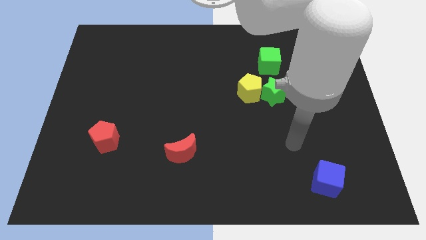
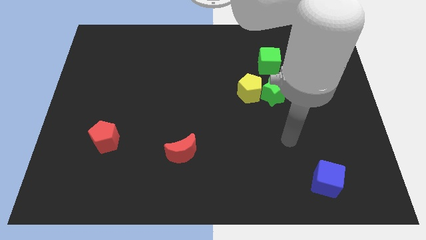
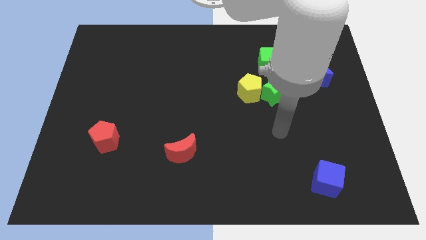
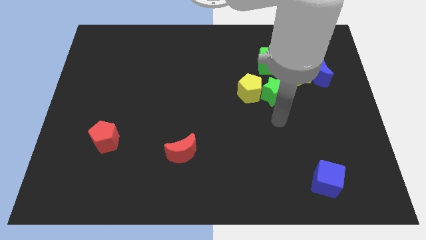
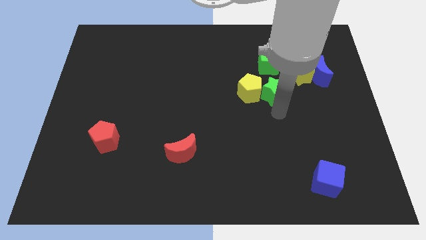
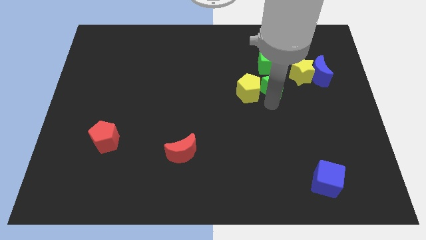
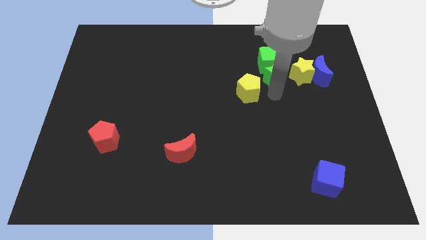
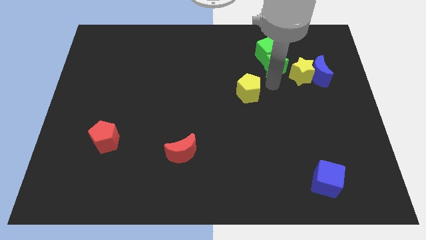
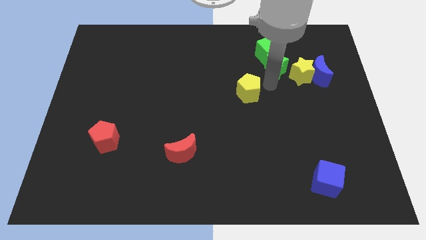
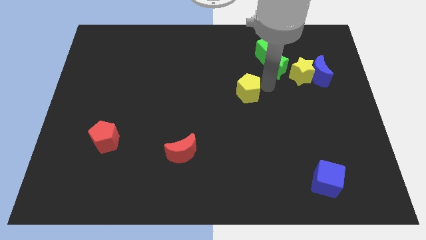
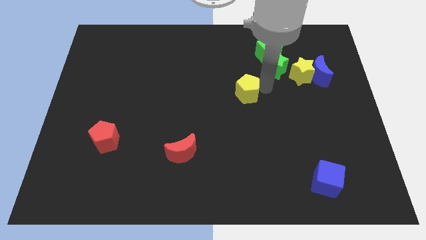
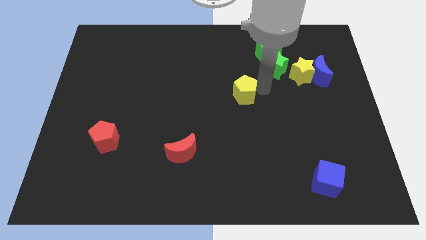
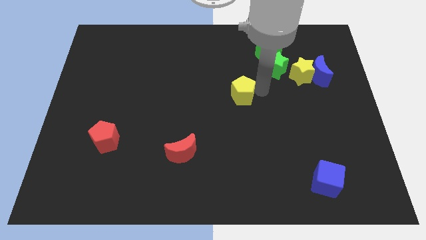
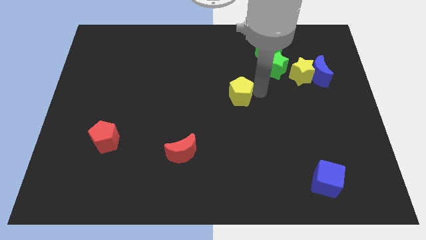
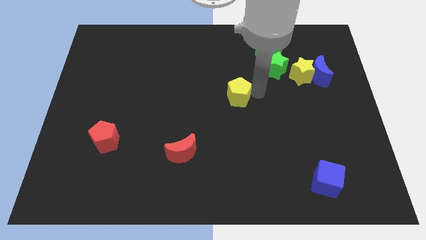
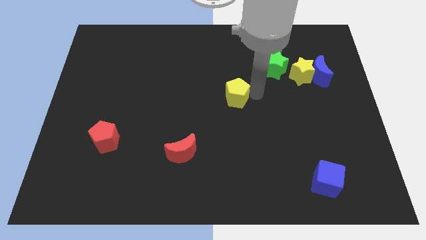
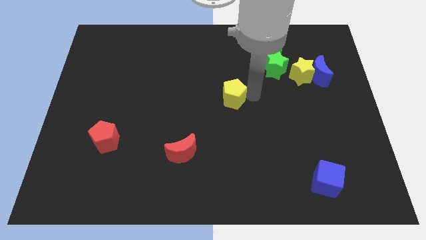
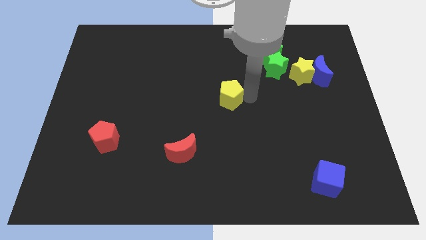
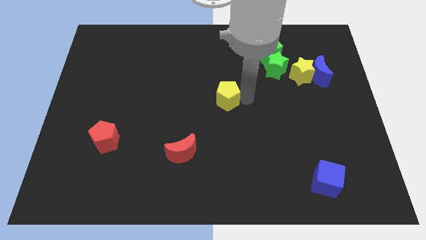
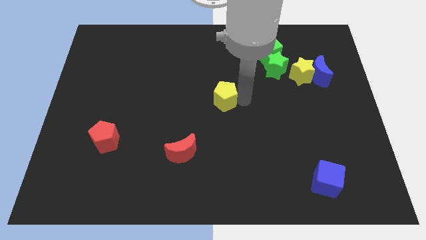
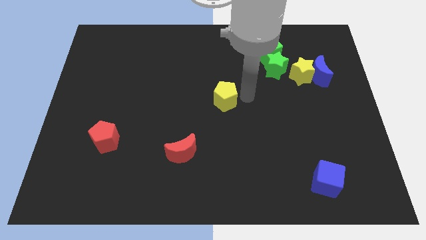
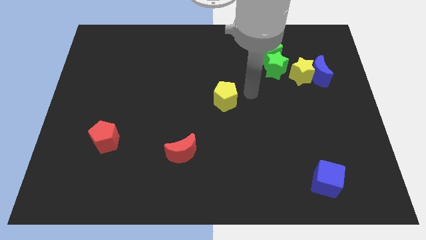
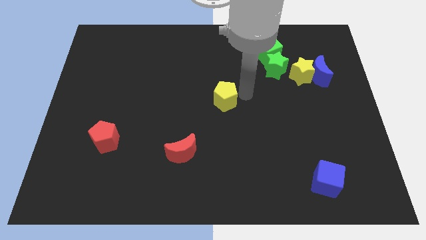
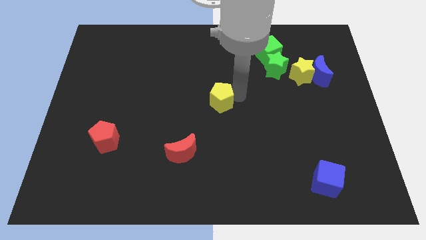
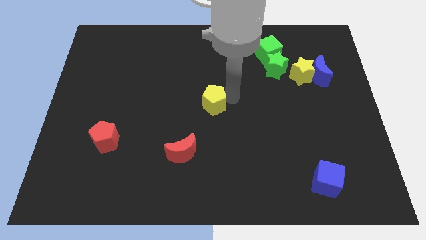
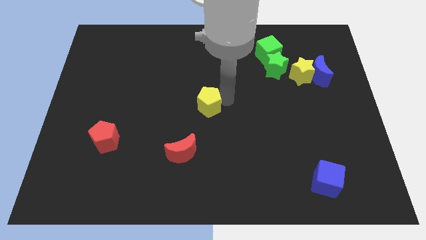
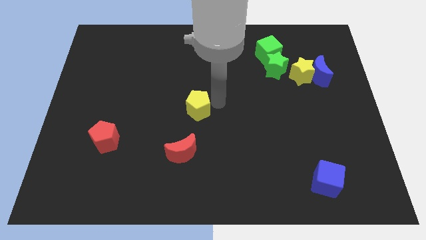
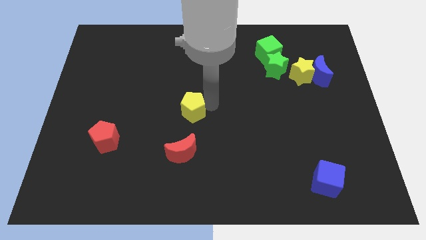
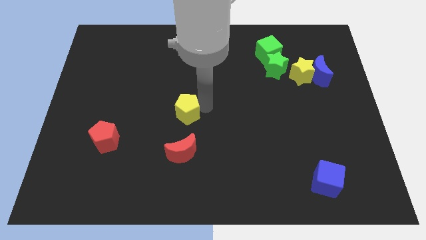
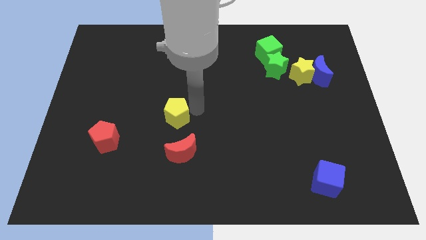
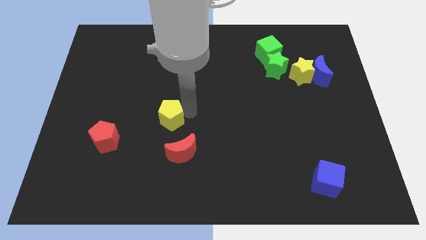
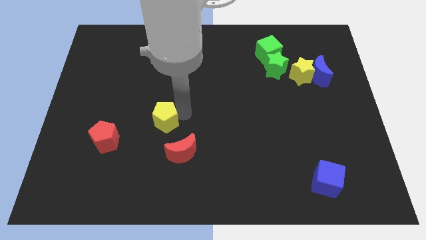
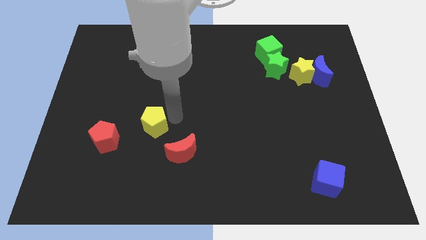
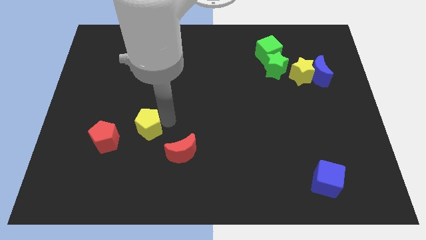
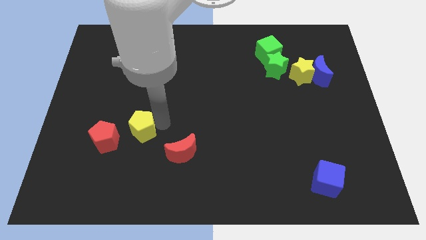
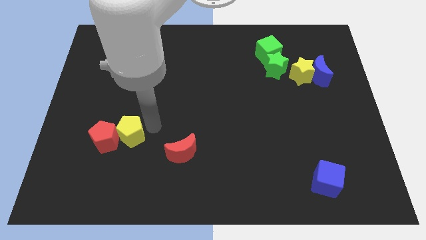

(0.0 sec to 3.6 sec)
push the yellow pentagon to the red pentagon

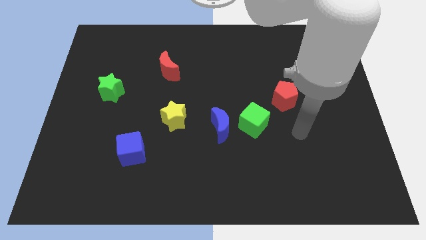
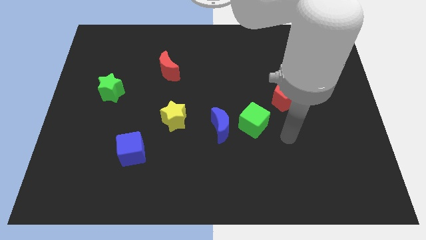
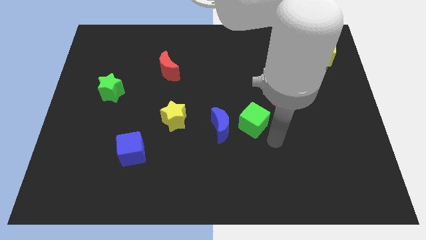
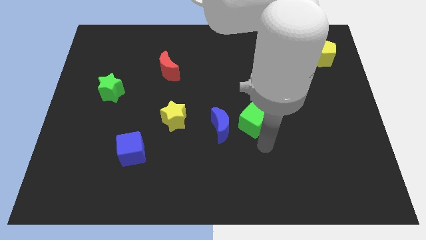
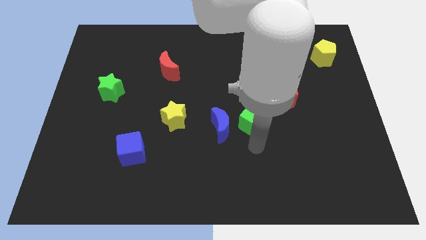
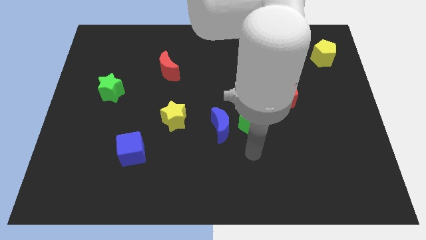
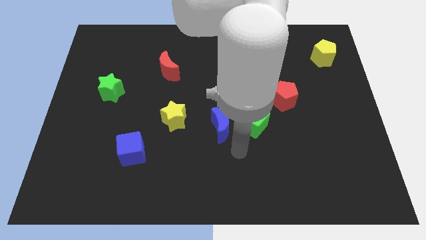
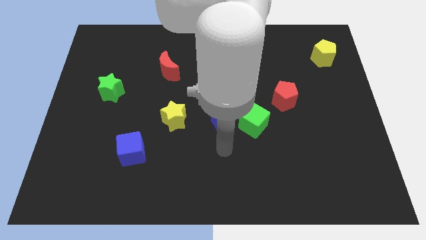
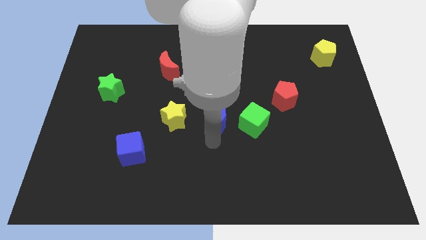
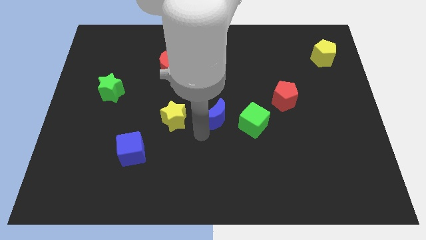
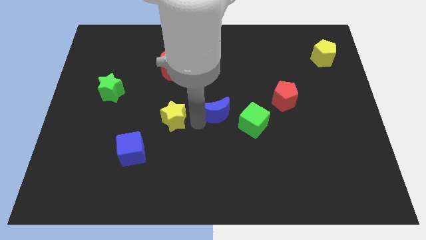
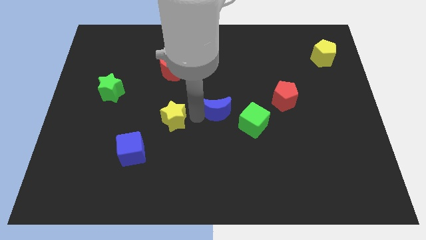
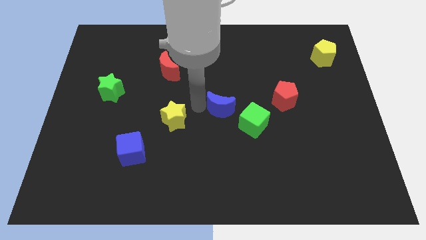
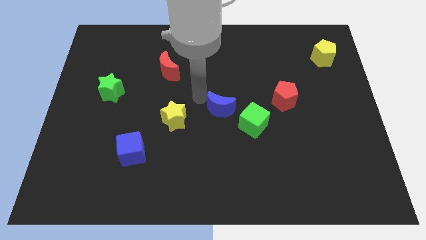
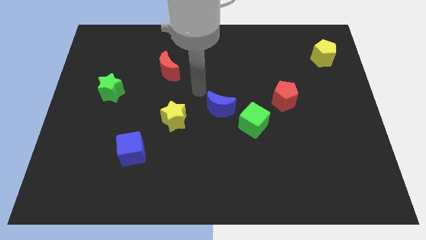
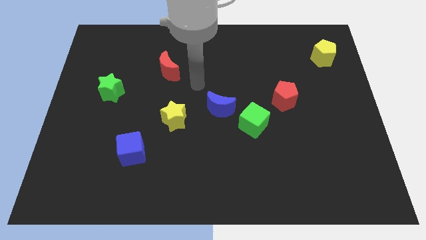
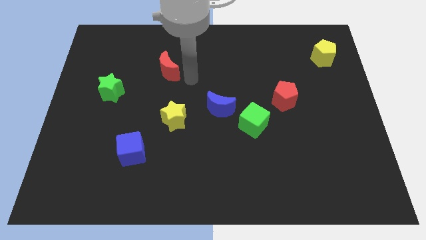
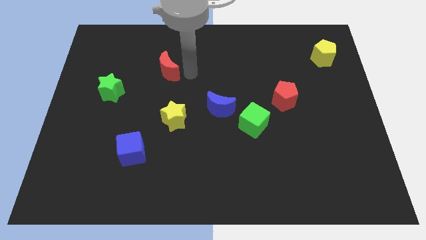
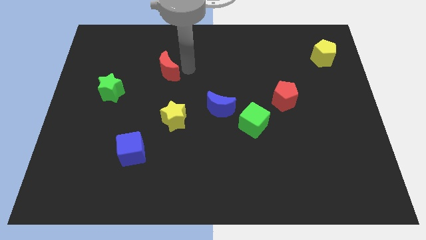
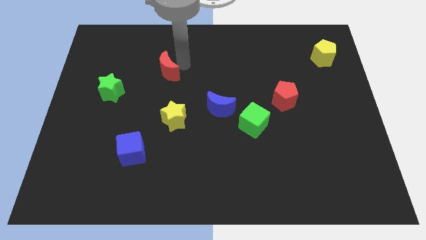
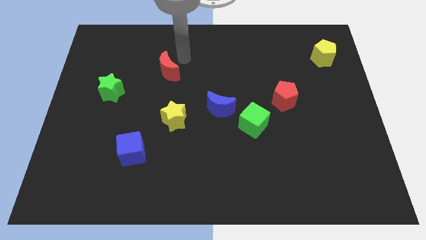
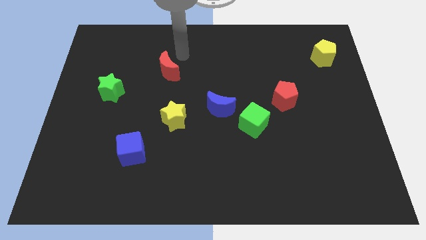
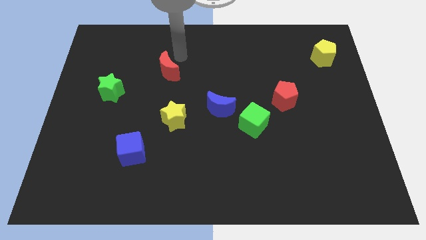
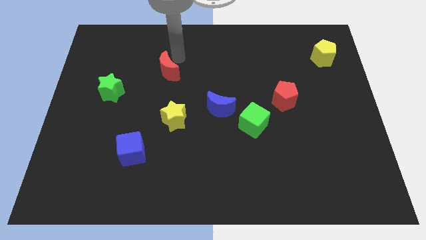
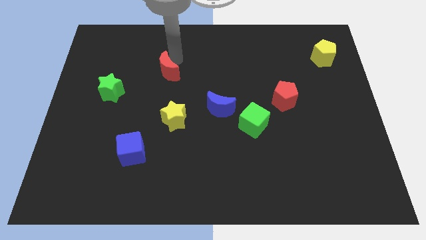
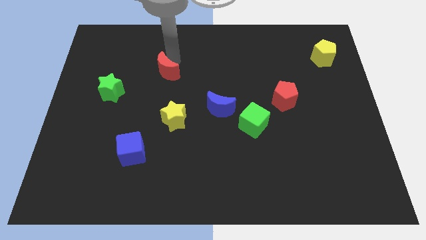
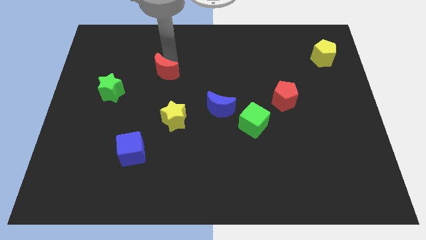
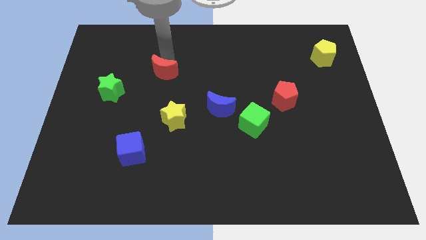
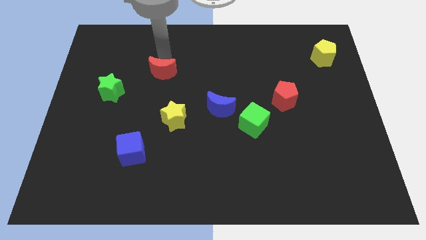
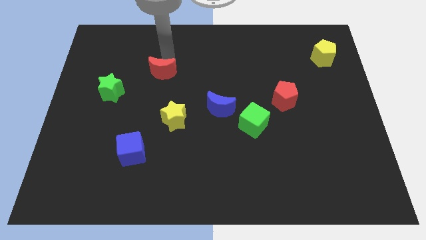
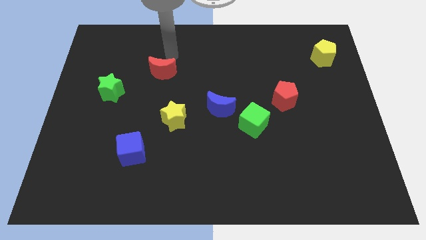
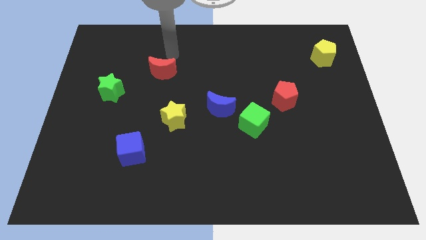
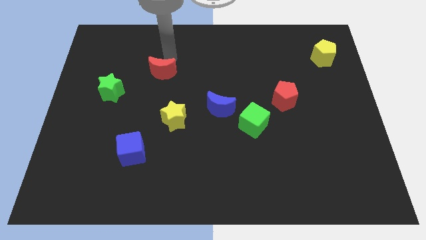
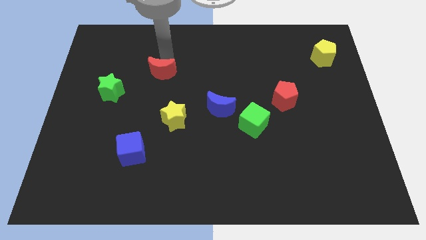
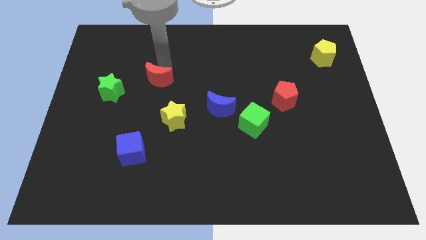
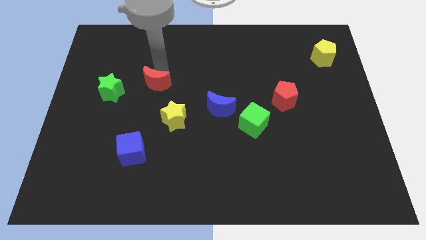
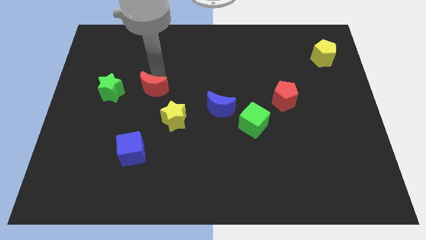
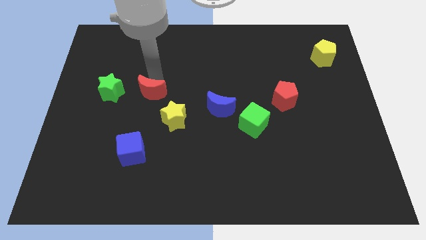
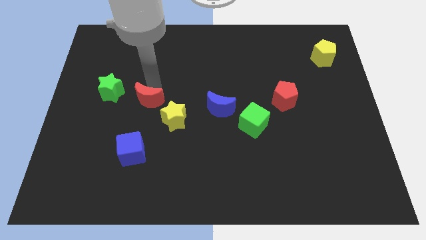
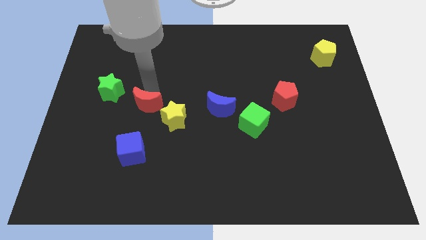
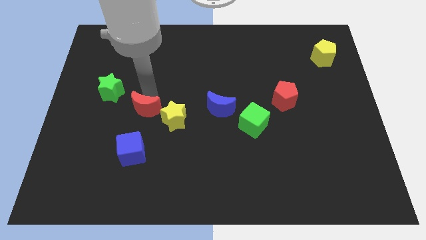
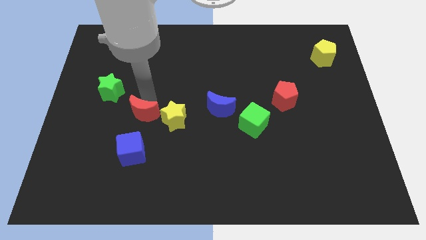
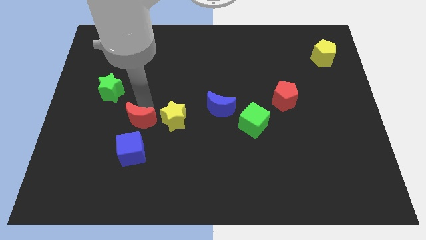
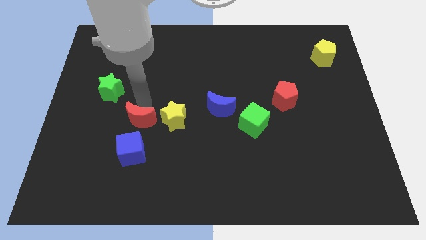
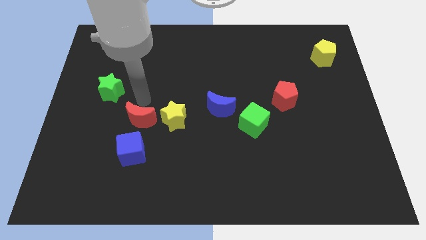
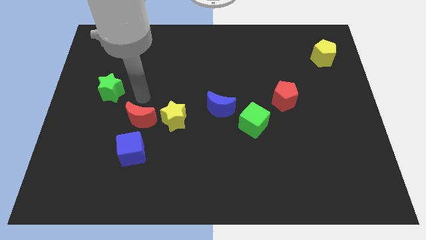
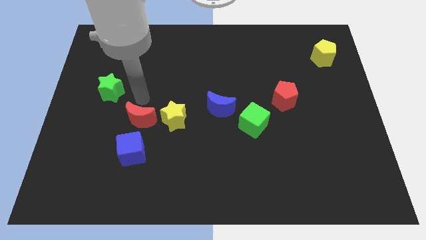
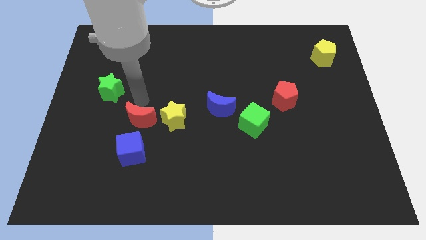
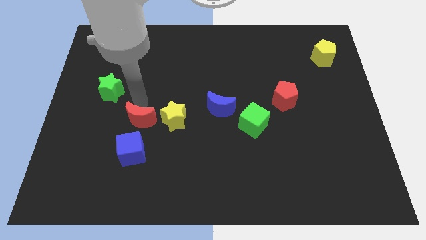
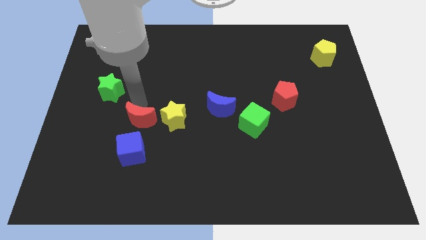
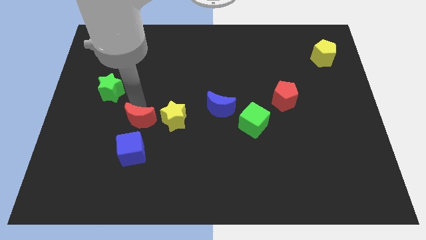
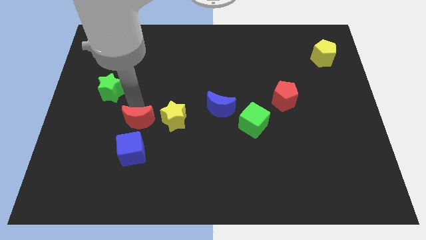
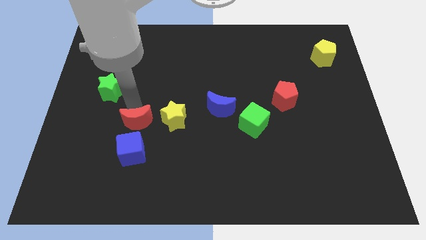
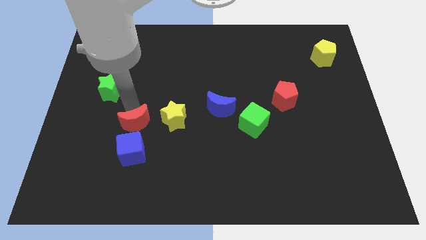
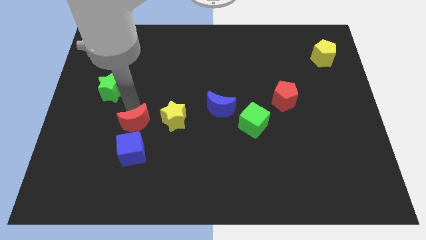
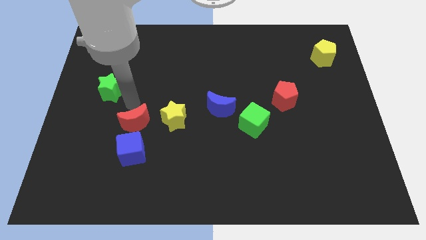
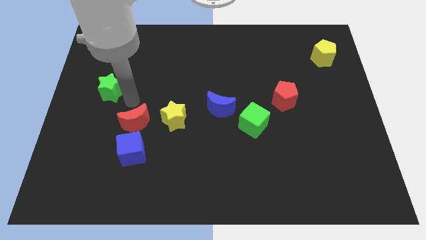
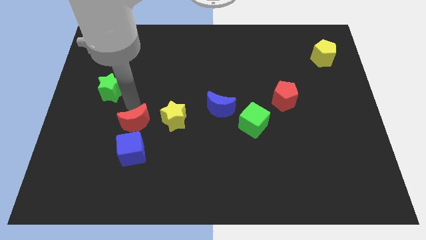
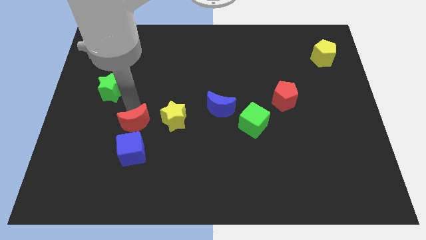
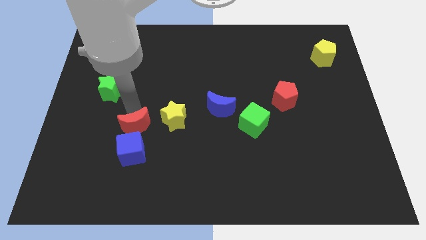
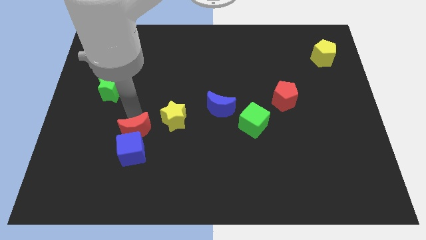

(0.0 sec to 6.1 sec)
slide the red moon close to the blue cube
